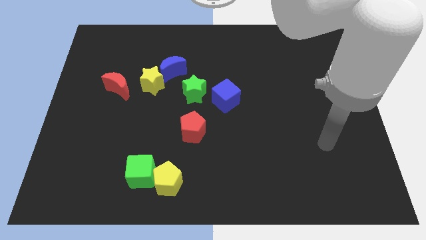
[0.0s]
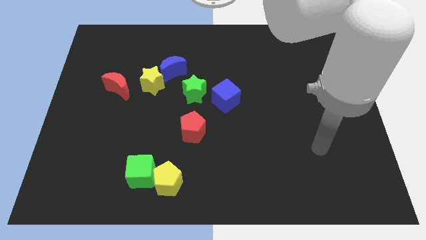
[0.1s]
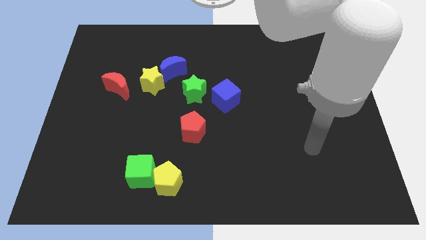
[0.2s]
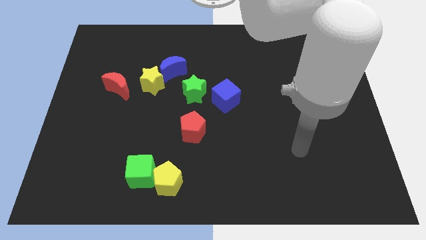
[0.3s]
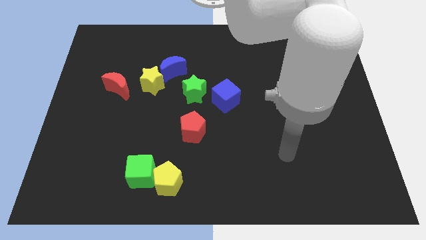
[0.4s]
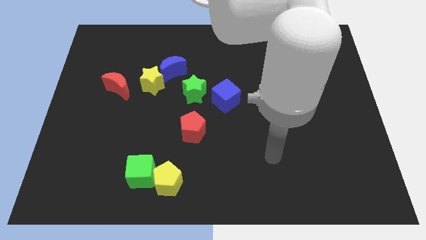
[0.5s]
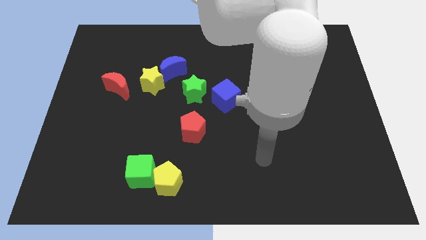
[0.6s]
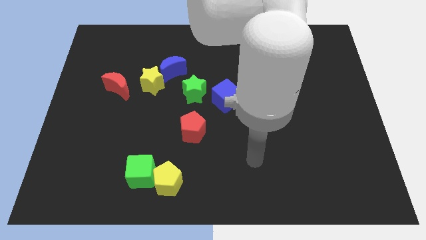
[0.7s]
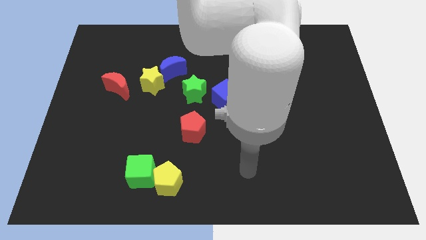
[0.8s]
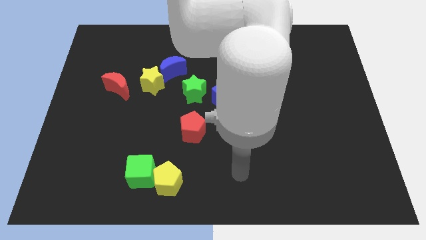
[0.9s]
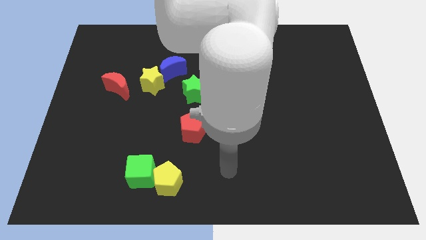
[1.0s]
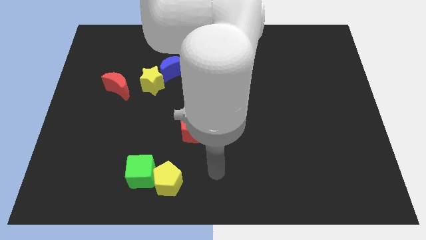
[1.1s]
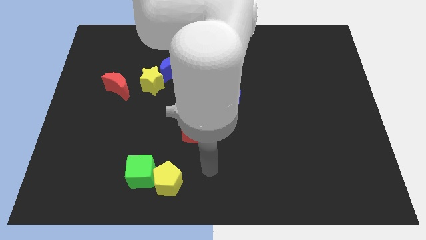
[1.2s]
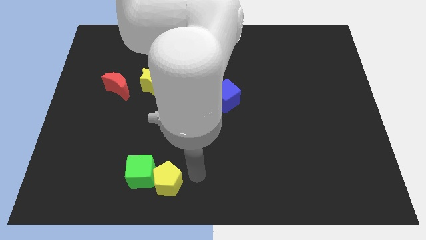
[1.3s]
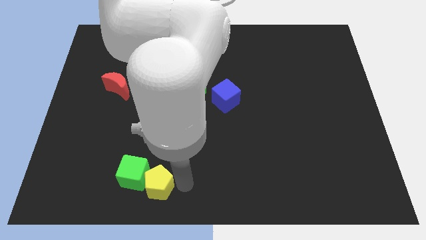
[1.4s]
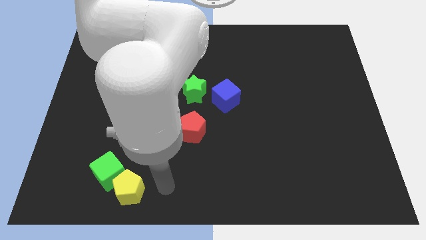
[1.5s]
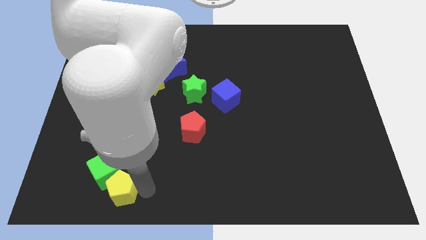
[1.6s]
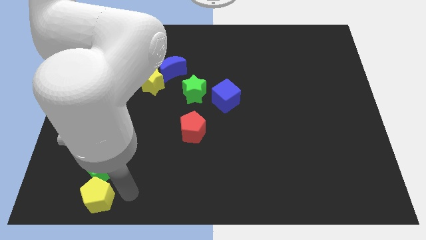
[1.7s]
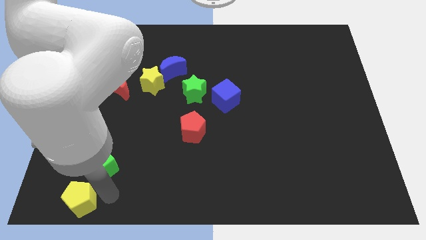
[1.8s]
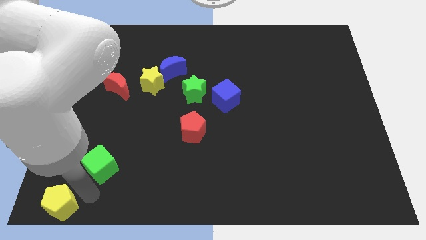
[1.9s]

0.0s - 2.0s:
separate the green cube from the yellow pentagon

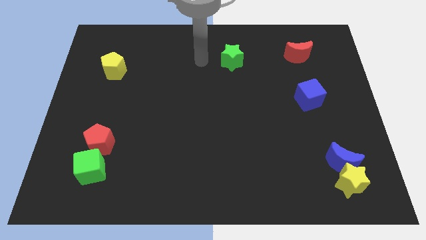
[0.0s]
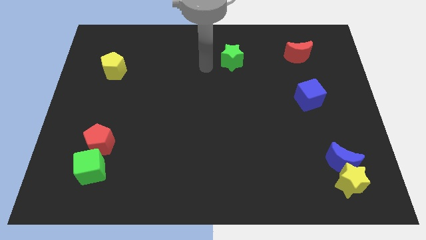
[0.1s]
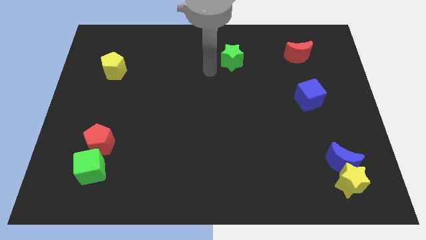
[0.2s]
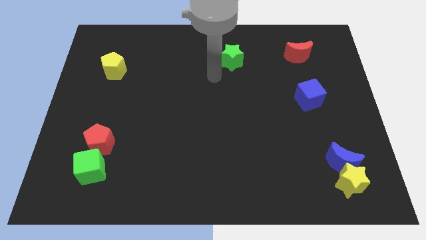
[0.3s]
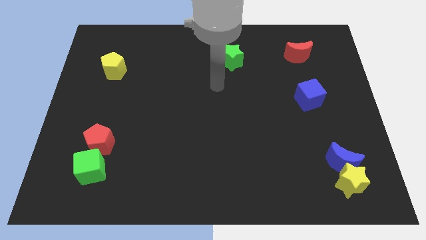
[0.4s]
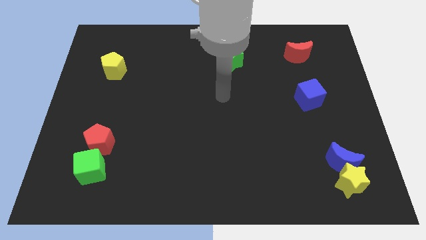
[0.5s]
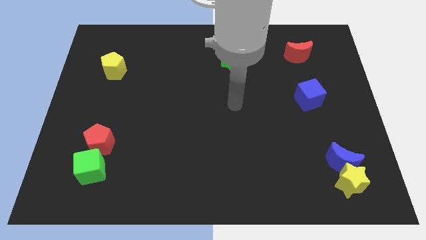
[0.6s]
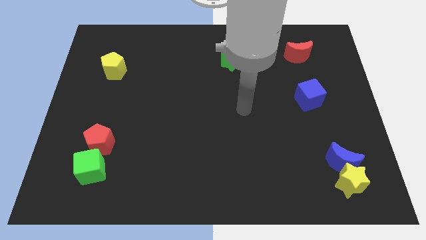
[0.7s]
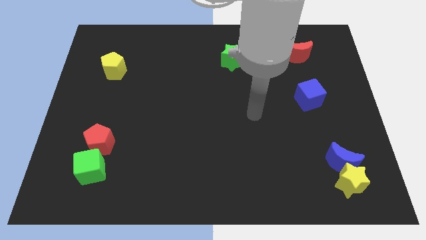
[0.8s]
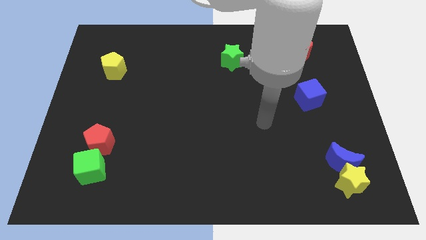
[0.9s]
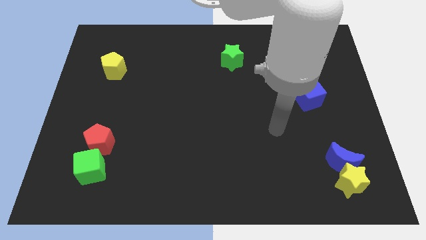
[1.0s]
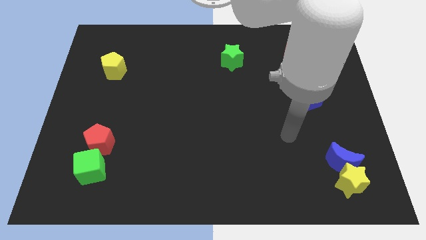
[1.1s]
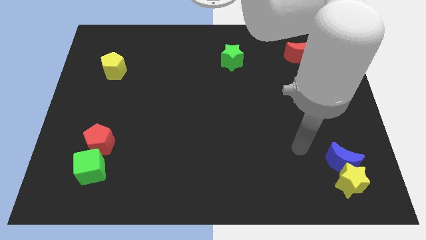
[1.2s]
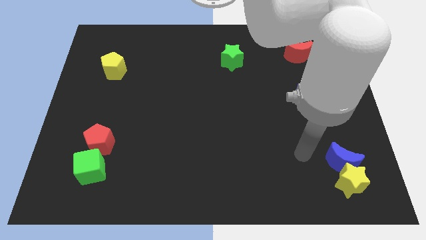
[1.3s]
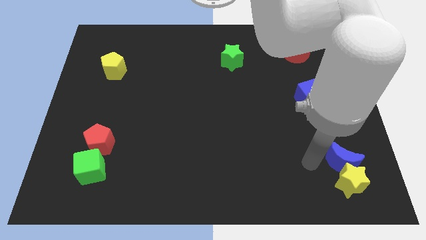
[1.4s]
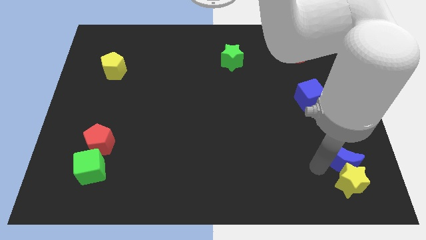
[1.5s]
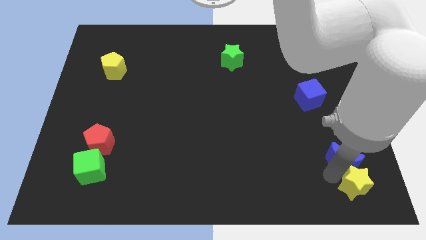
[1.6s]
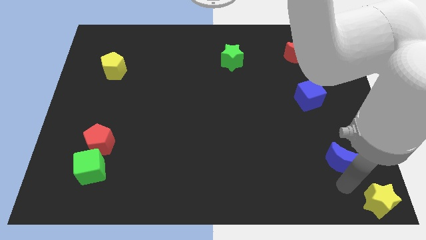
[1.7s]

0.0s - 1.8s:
separate the blue moon from the yellow star

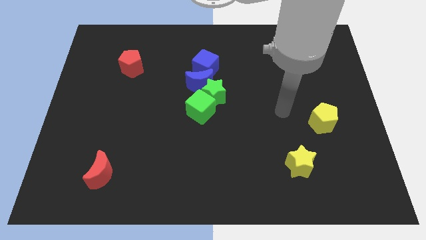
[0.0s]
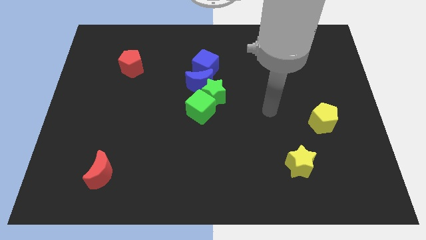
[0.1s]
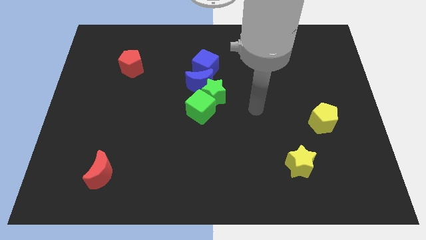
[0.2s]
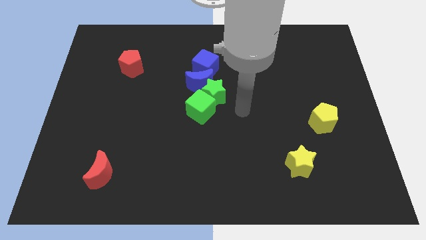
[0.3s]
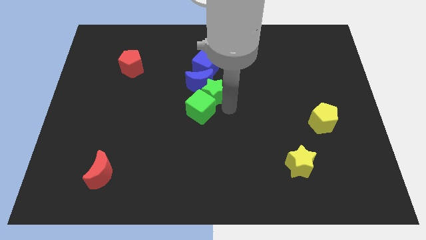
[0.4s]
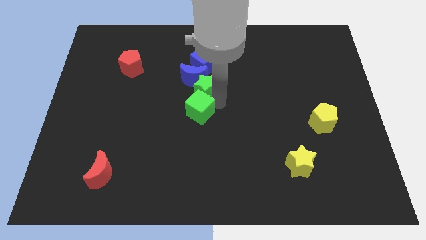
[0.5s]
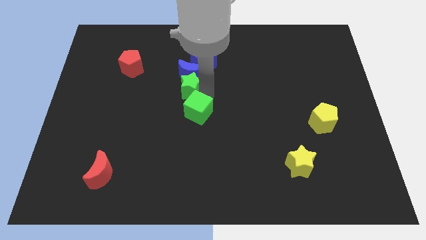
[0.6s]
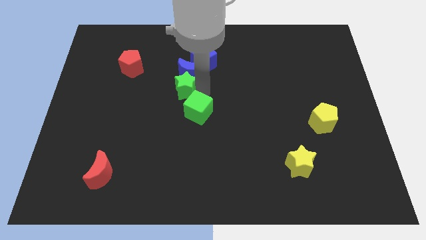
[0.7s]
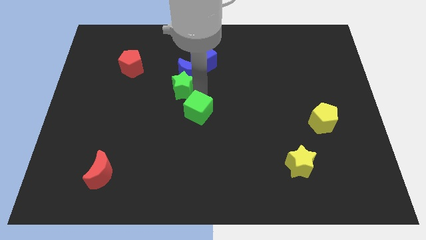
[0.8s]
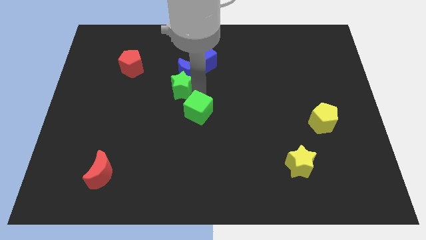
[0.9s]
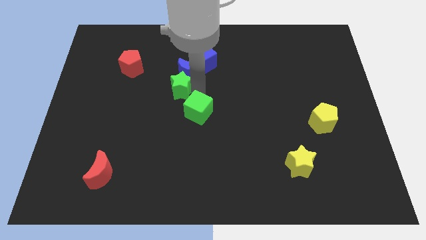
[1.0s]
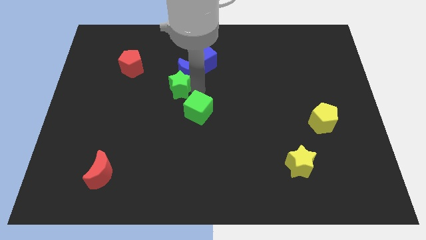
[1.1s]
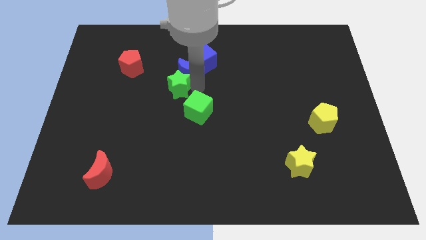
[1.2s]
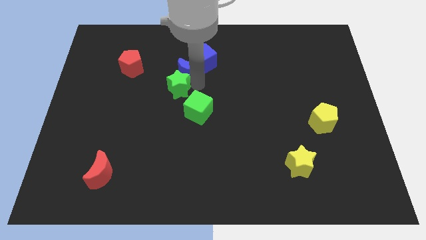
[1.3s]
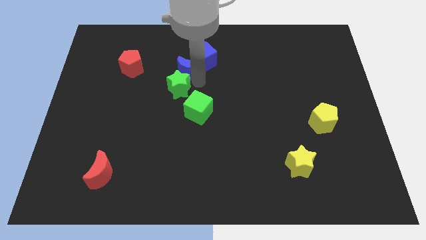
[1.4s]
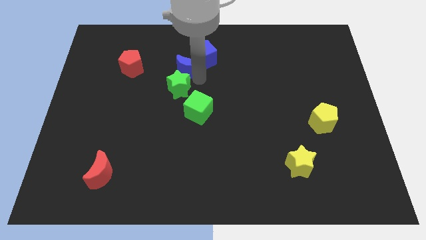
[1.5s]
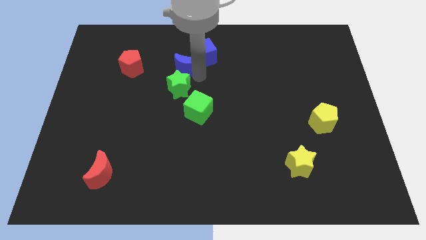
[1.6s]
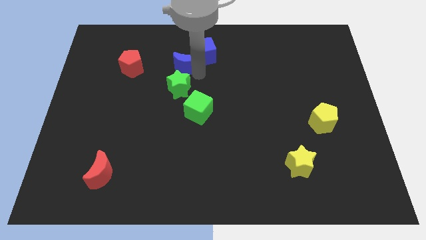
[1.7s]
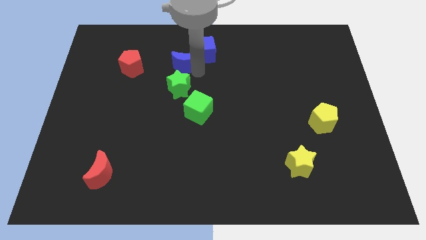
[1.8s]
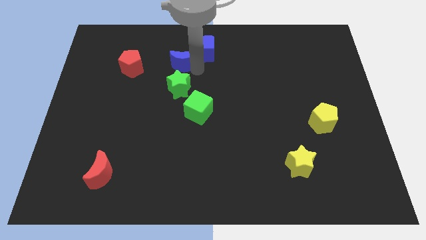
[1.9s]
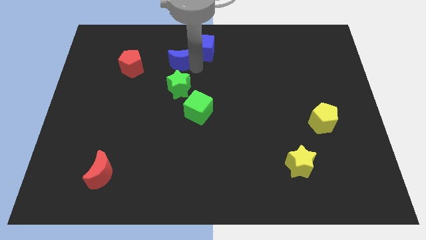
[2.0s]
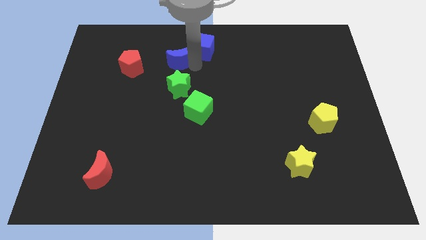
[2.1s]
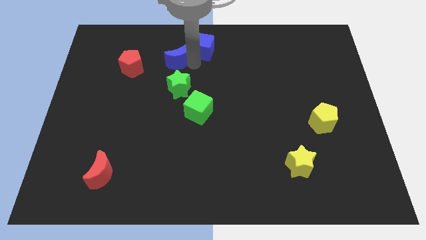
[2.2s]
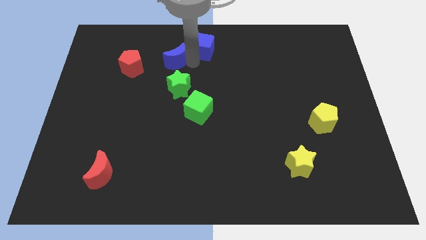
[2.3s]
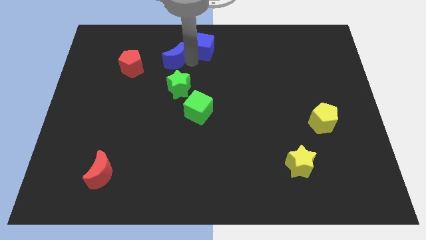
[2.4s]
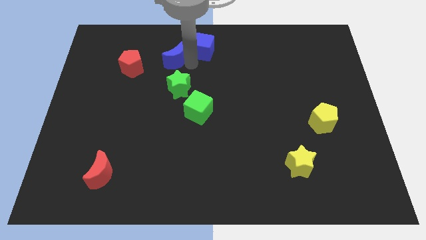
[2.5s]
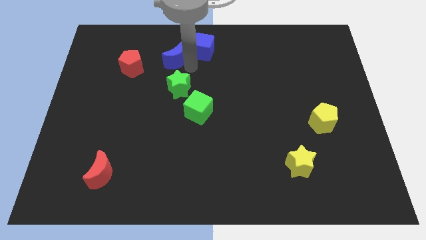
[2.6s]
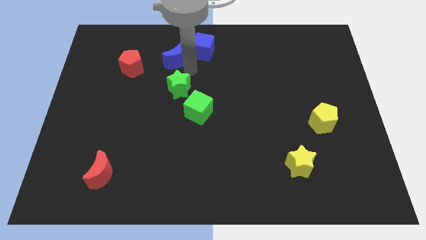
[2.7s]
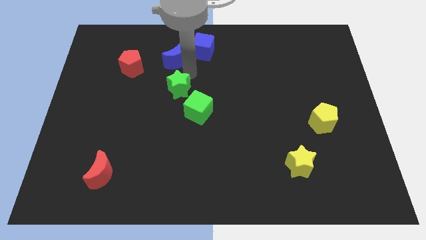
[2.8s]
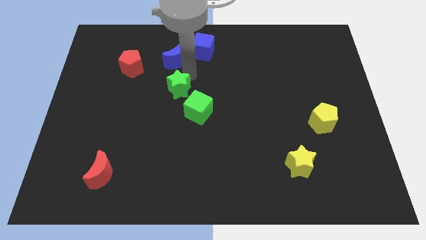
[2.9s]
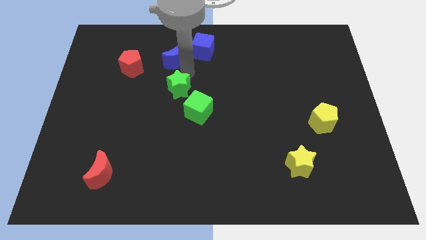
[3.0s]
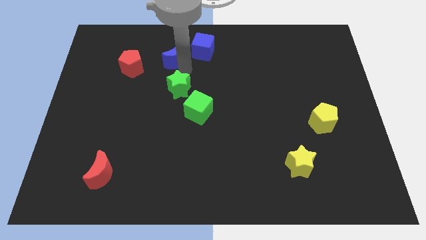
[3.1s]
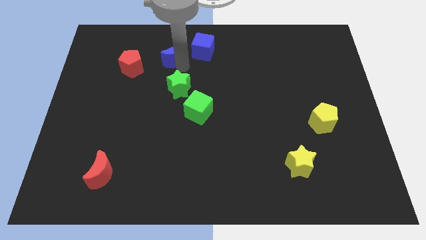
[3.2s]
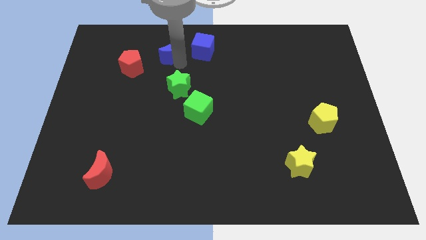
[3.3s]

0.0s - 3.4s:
pull the blue moon apart from the group

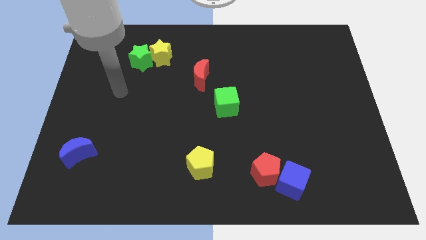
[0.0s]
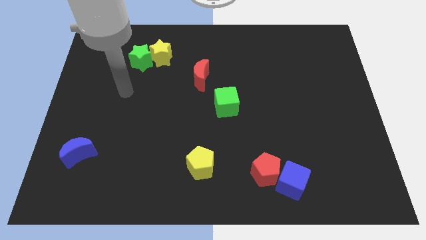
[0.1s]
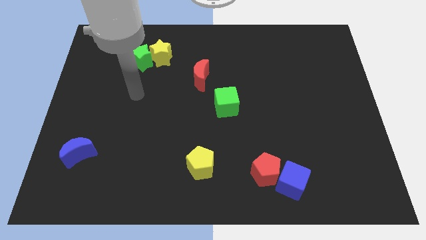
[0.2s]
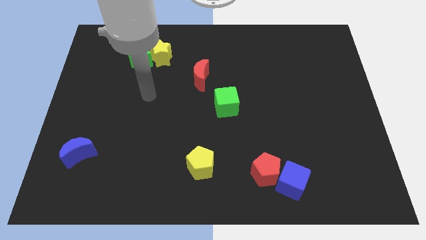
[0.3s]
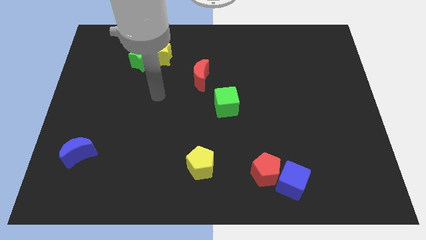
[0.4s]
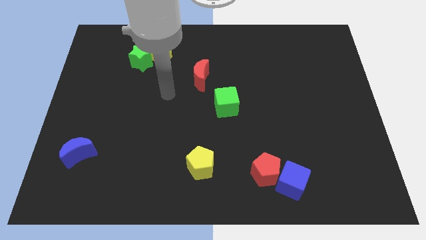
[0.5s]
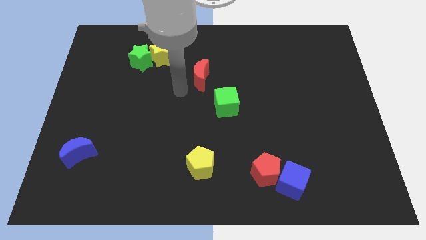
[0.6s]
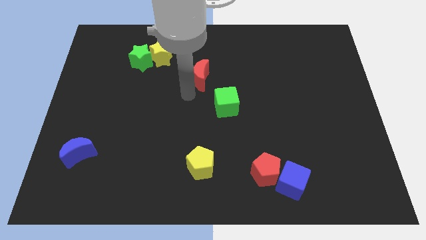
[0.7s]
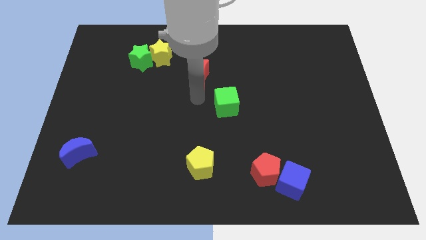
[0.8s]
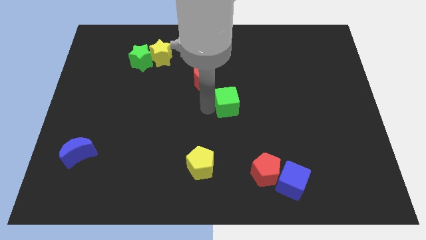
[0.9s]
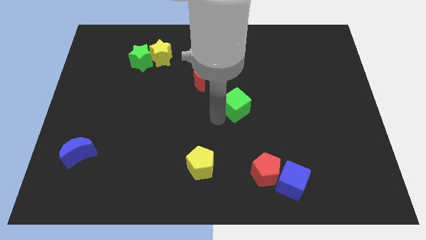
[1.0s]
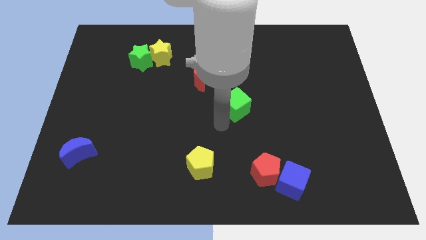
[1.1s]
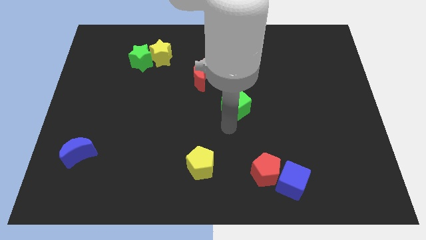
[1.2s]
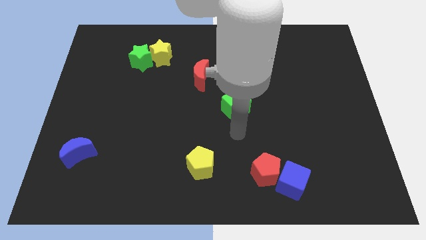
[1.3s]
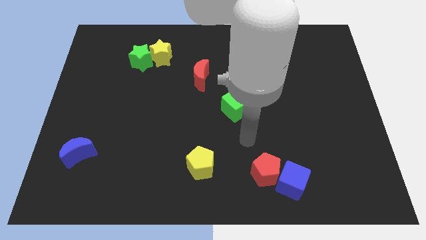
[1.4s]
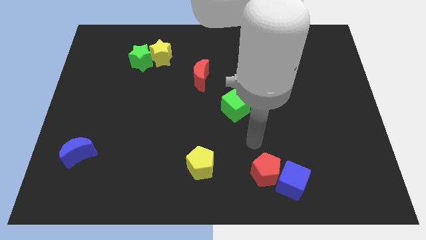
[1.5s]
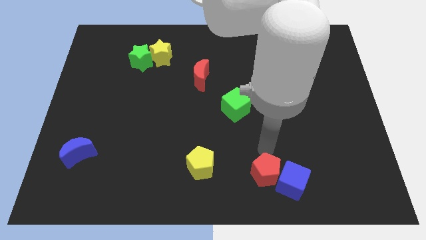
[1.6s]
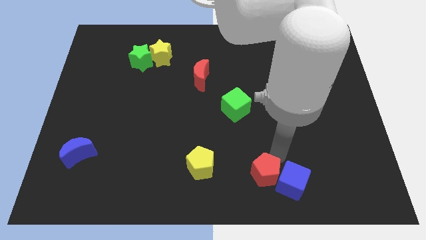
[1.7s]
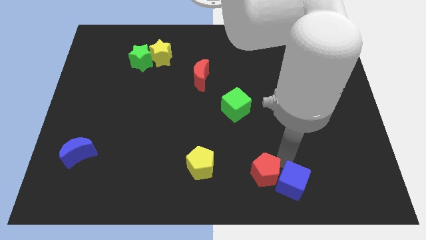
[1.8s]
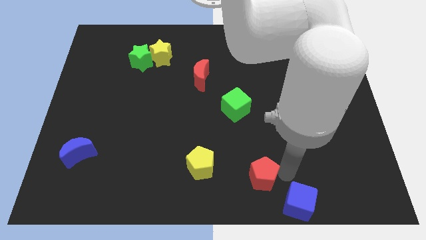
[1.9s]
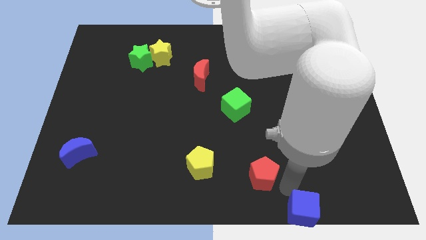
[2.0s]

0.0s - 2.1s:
move the red pentagon away from the blue cube
